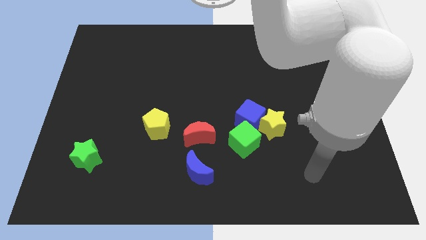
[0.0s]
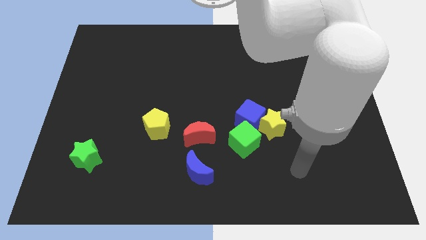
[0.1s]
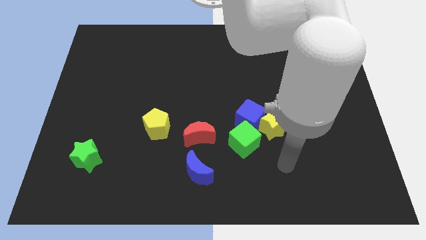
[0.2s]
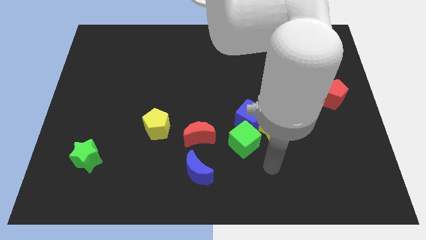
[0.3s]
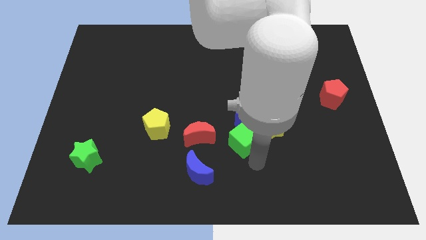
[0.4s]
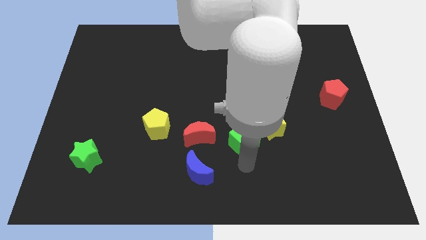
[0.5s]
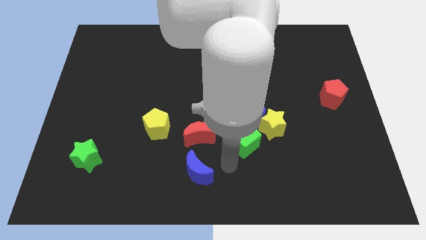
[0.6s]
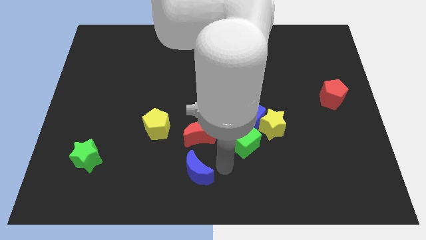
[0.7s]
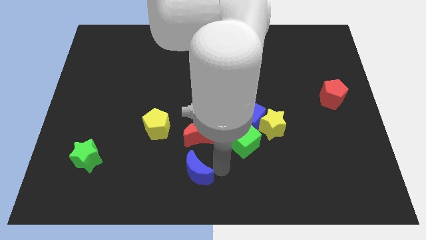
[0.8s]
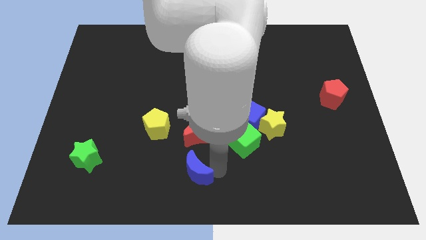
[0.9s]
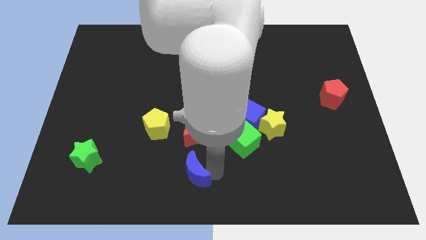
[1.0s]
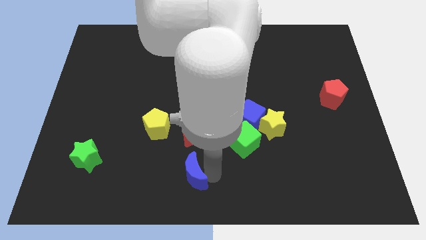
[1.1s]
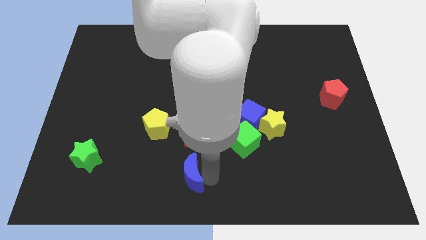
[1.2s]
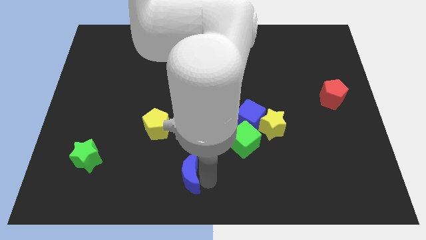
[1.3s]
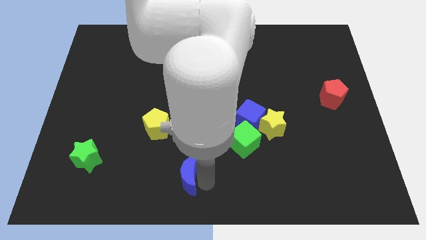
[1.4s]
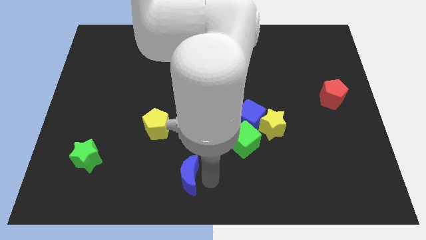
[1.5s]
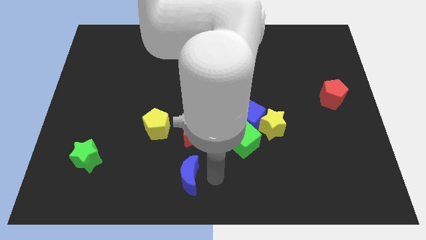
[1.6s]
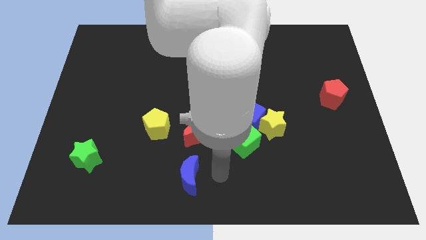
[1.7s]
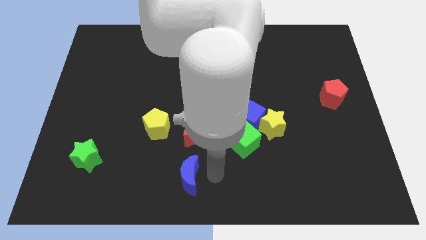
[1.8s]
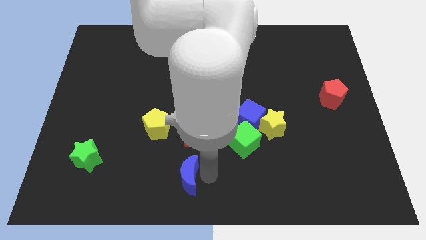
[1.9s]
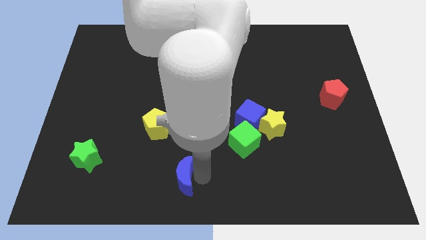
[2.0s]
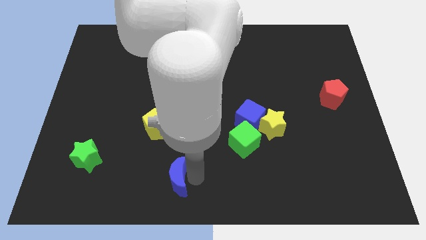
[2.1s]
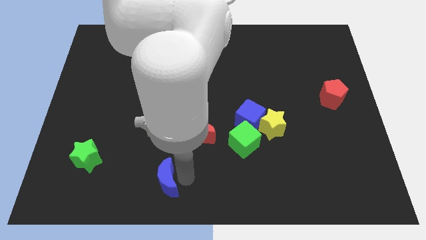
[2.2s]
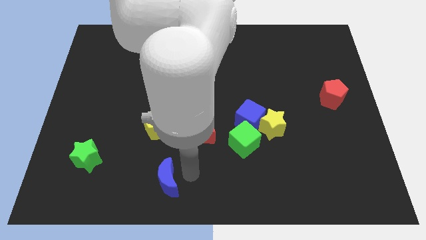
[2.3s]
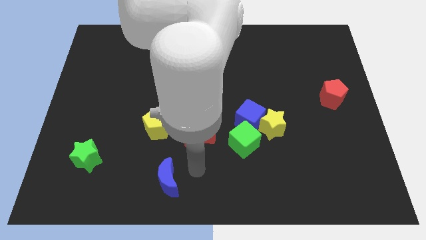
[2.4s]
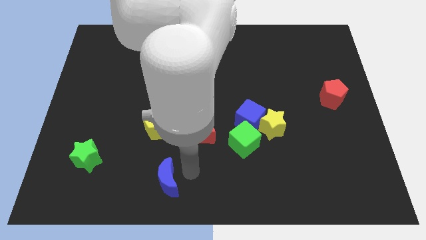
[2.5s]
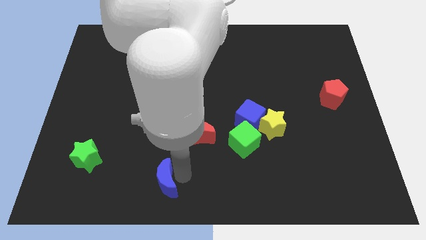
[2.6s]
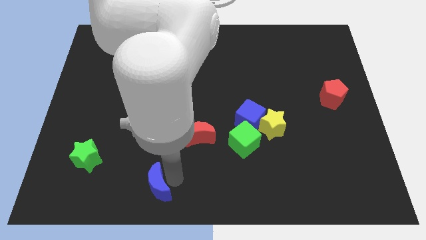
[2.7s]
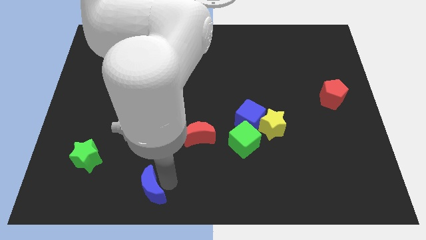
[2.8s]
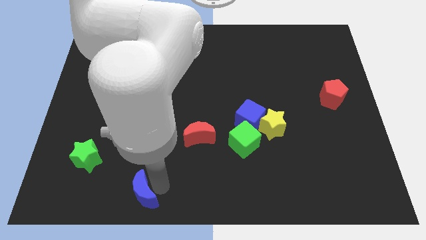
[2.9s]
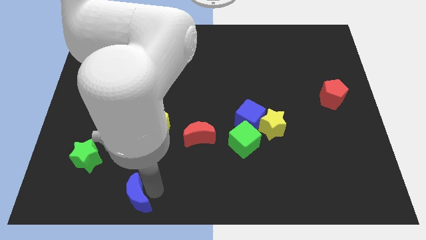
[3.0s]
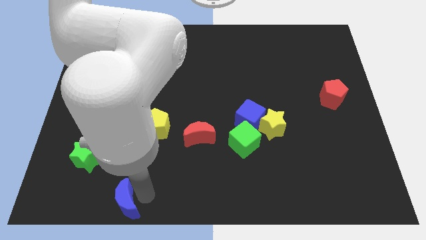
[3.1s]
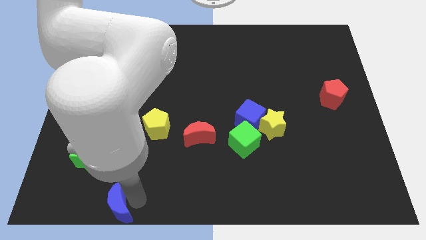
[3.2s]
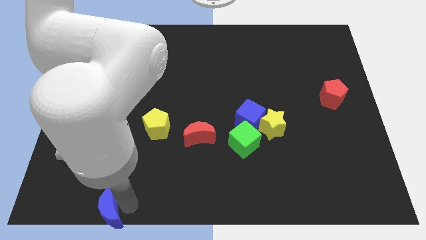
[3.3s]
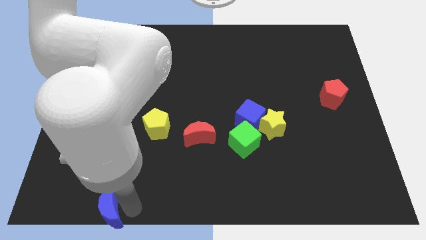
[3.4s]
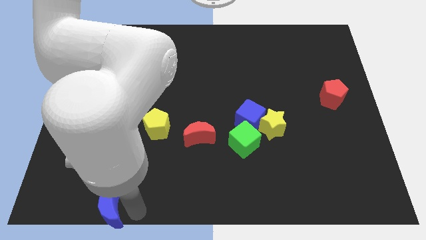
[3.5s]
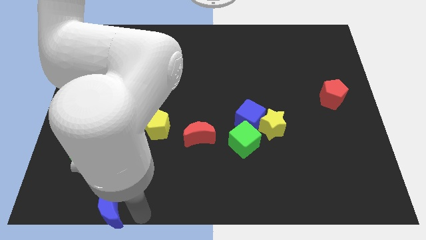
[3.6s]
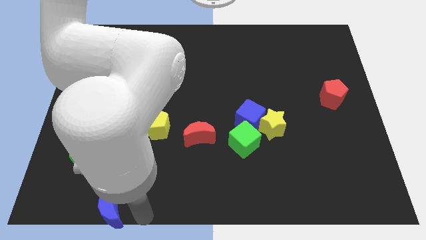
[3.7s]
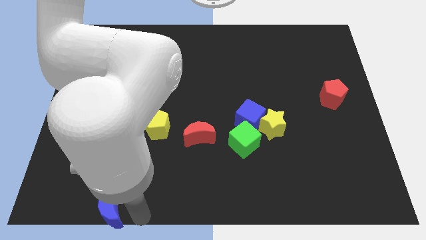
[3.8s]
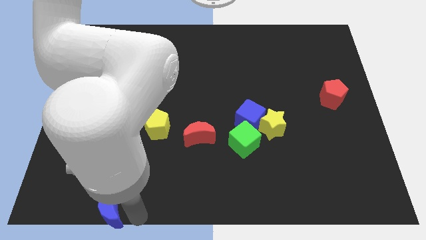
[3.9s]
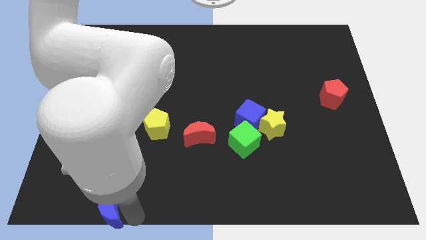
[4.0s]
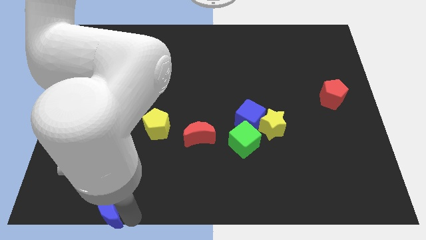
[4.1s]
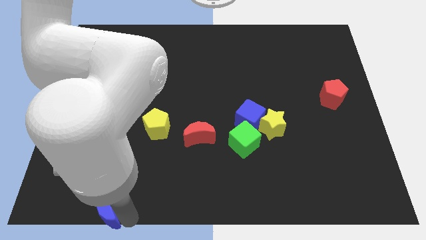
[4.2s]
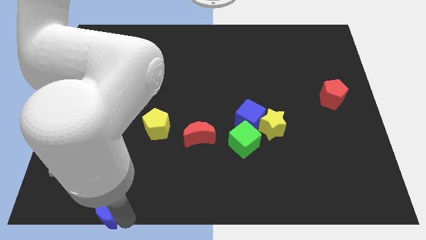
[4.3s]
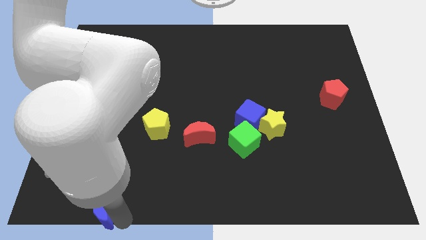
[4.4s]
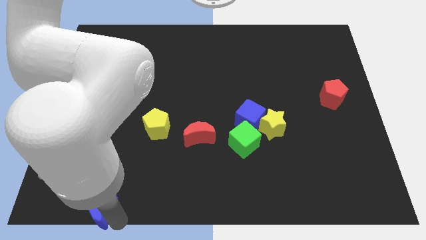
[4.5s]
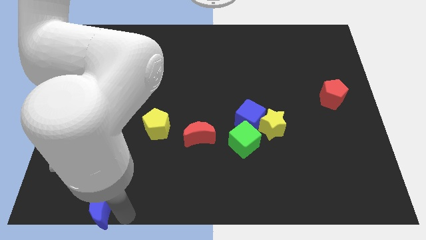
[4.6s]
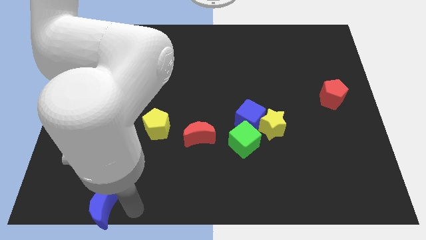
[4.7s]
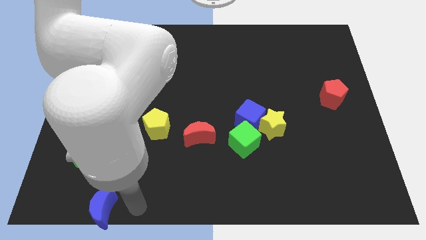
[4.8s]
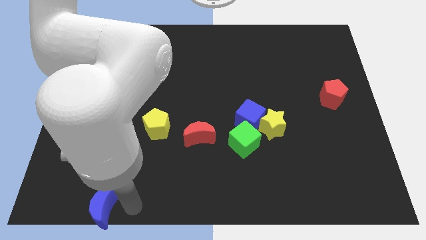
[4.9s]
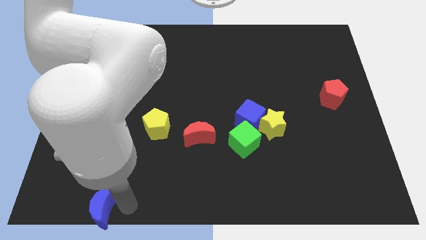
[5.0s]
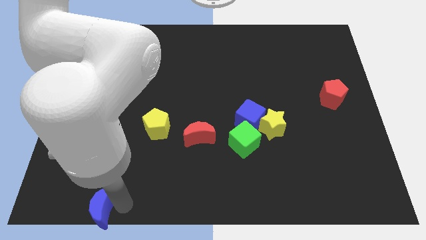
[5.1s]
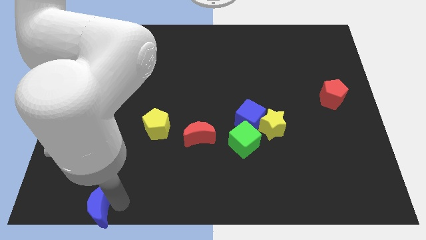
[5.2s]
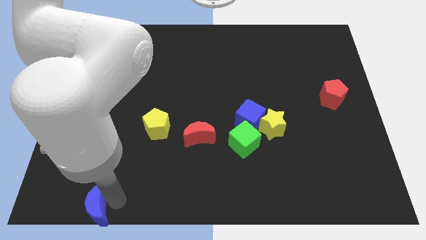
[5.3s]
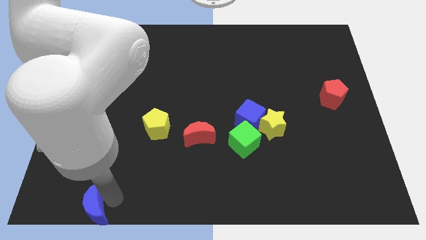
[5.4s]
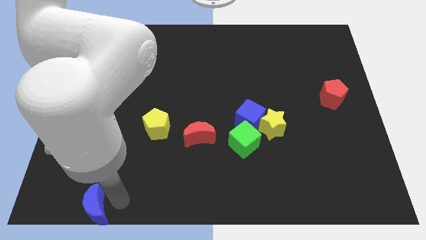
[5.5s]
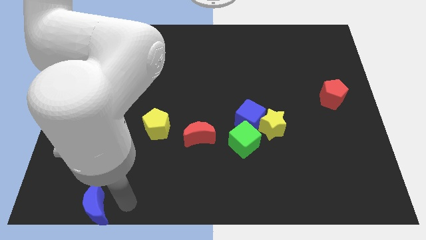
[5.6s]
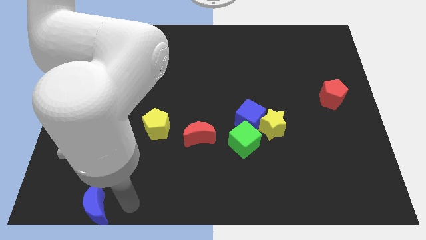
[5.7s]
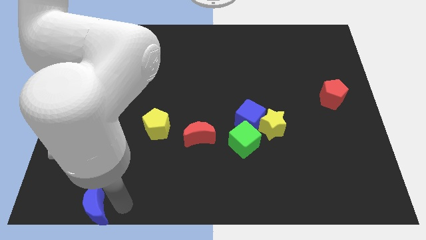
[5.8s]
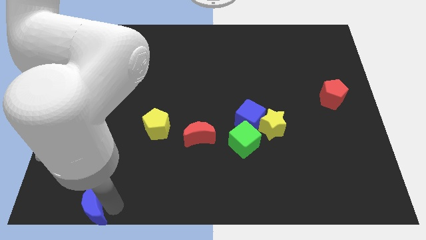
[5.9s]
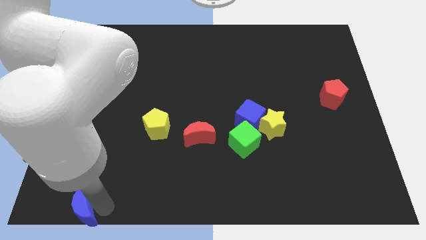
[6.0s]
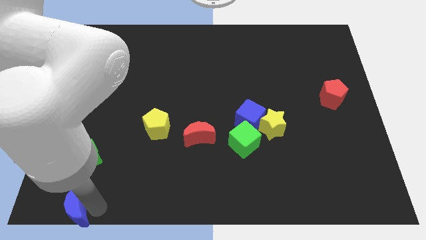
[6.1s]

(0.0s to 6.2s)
move the blue moon to the lower left corner

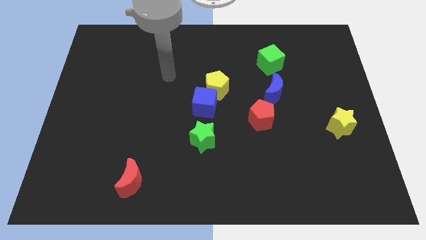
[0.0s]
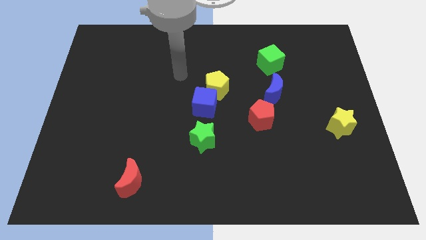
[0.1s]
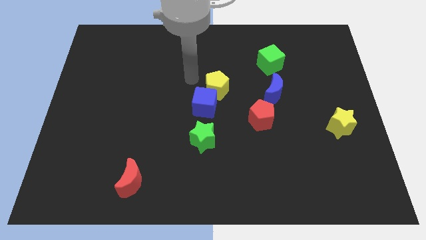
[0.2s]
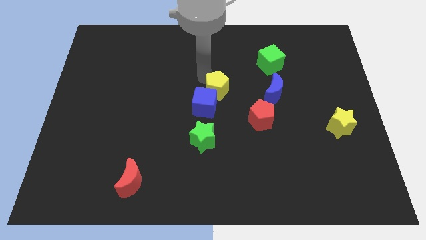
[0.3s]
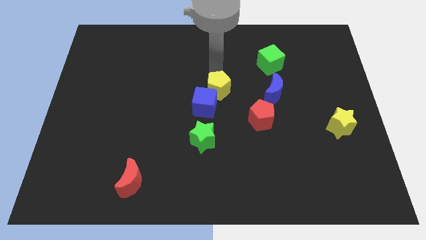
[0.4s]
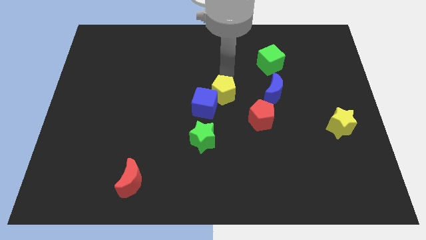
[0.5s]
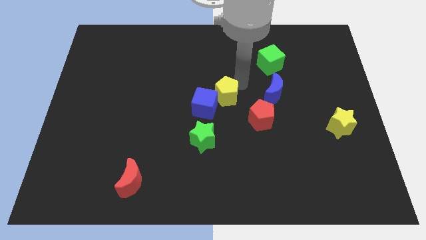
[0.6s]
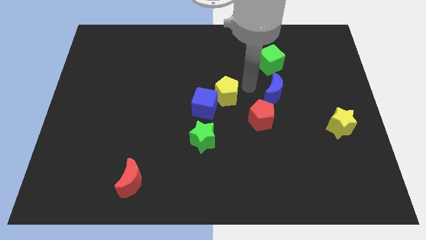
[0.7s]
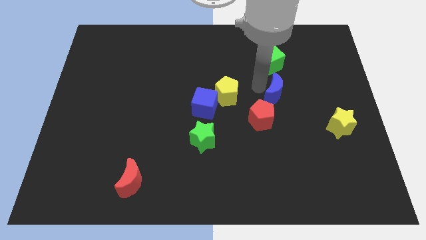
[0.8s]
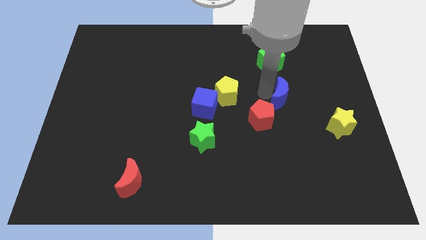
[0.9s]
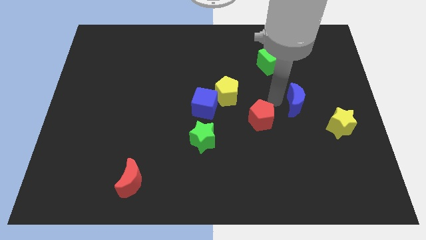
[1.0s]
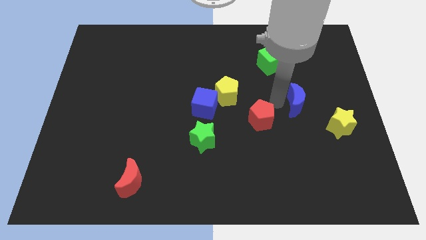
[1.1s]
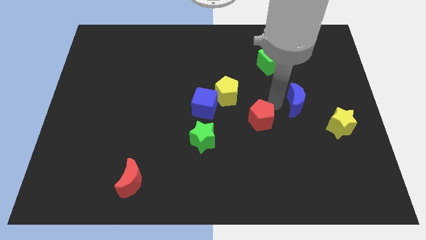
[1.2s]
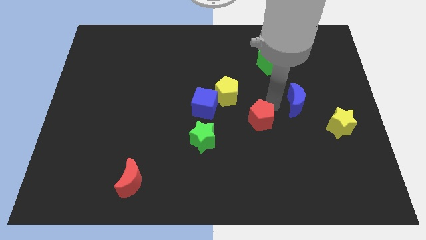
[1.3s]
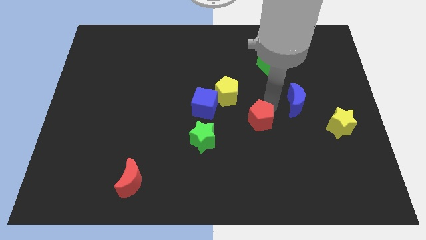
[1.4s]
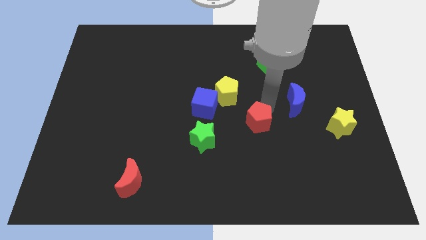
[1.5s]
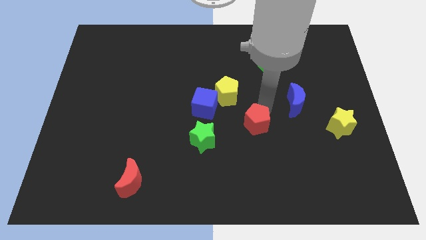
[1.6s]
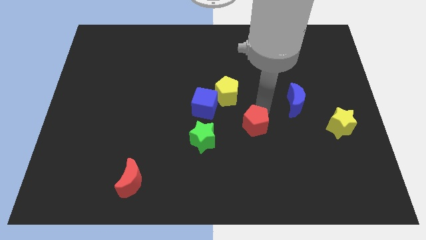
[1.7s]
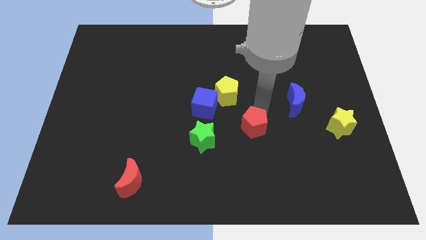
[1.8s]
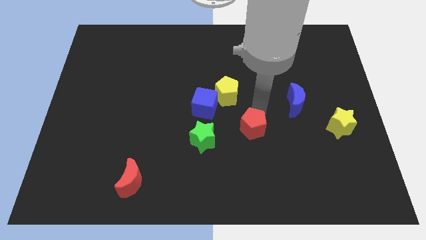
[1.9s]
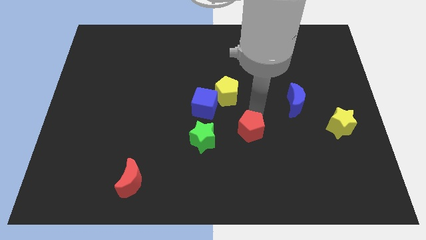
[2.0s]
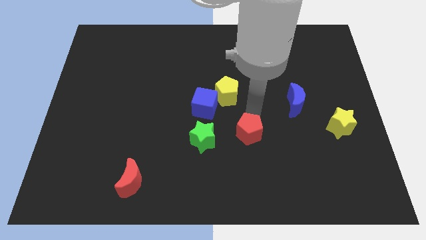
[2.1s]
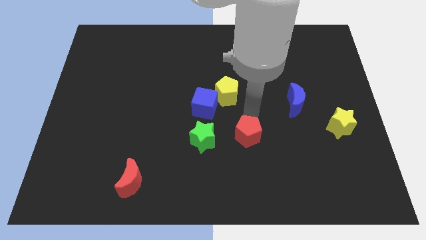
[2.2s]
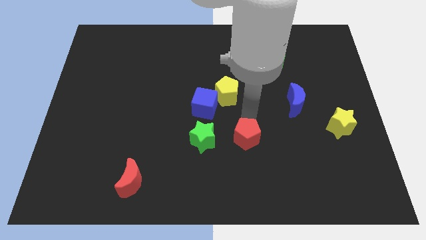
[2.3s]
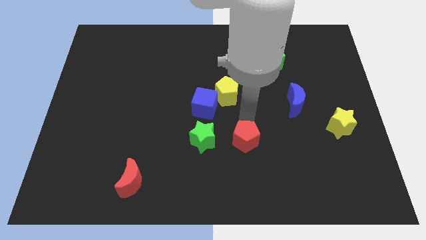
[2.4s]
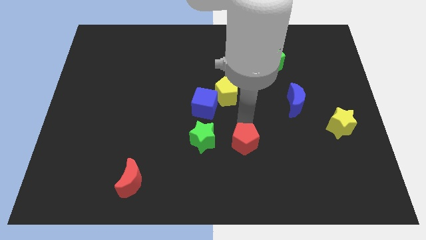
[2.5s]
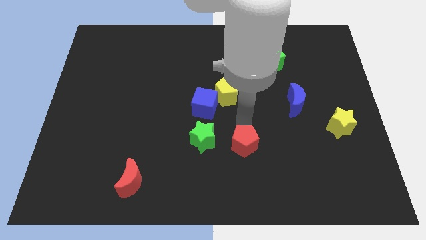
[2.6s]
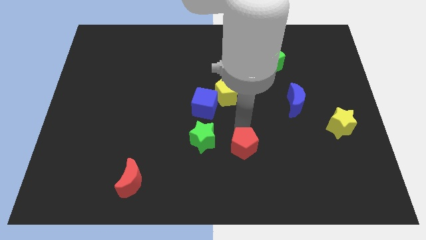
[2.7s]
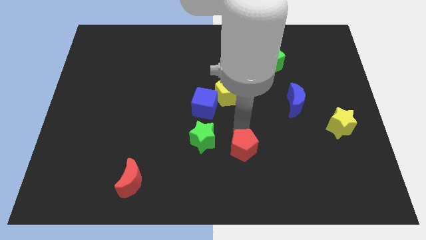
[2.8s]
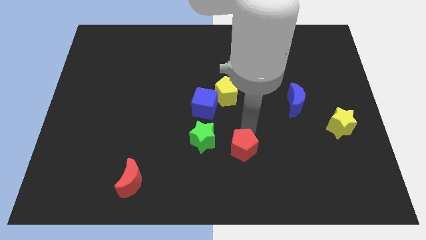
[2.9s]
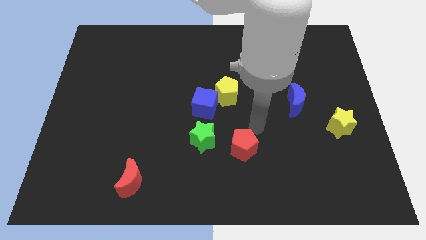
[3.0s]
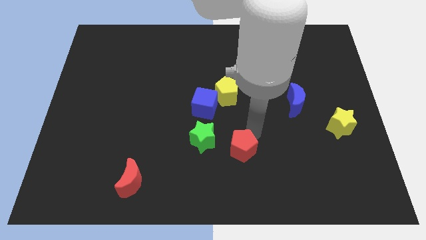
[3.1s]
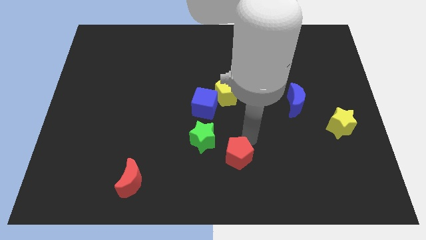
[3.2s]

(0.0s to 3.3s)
move the red pentagon to the bottom
